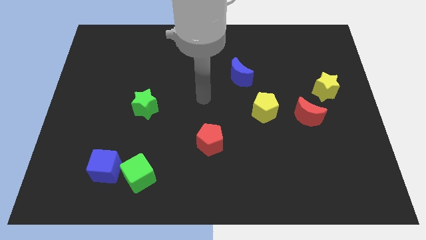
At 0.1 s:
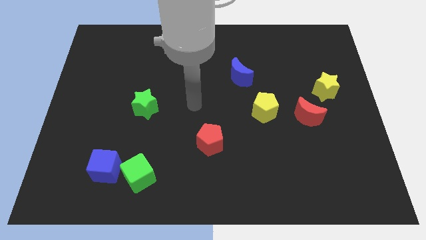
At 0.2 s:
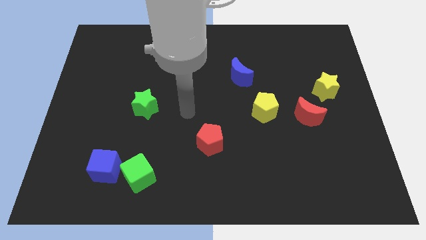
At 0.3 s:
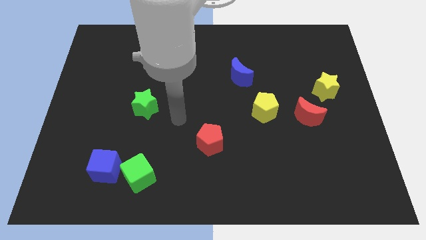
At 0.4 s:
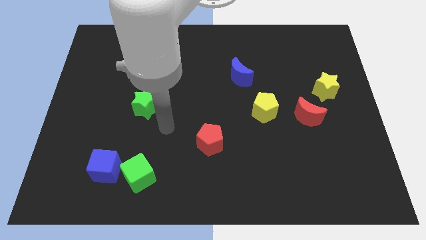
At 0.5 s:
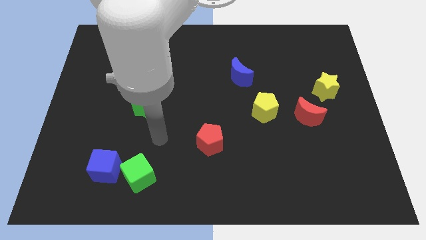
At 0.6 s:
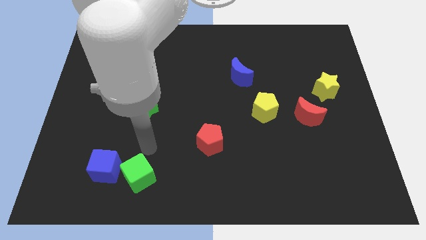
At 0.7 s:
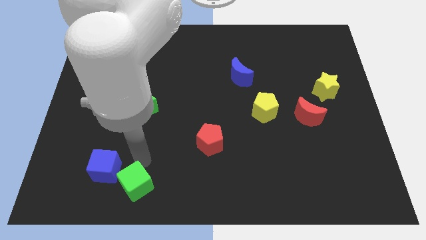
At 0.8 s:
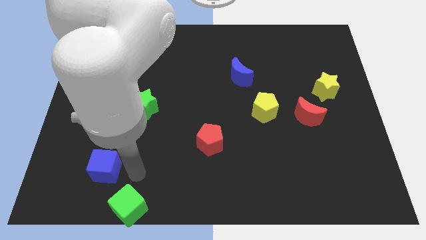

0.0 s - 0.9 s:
pull the blue cube apart from the green cube

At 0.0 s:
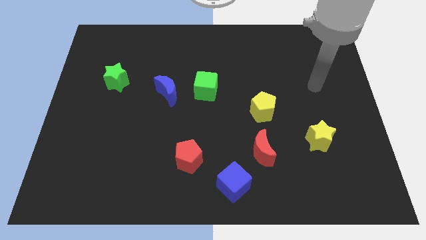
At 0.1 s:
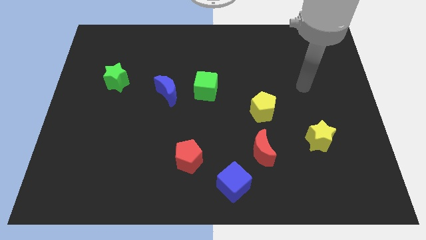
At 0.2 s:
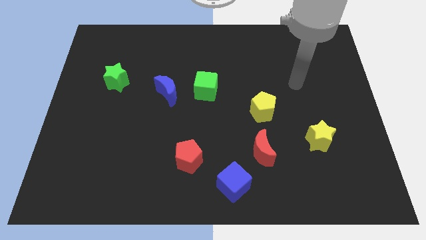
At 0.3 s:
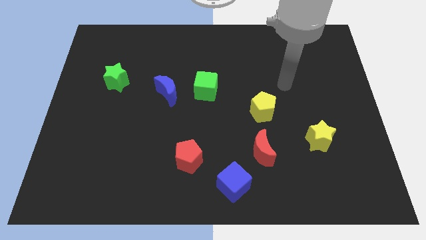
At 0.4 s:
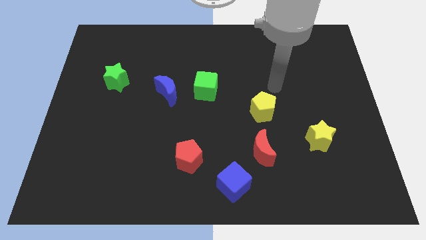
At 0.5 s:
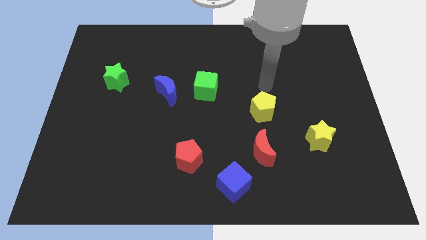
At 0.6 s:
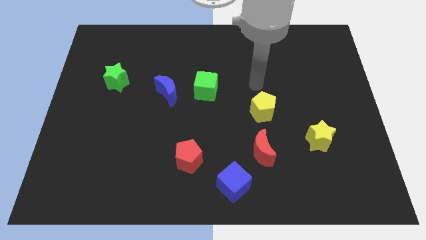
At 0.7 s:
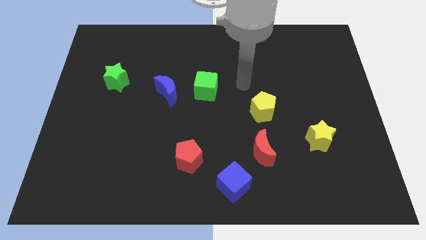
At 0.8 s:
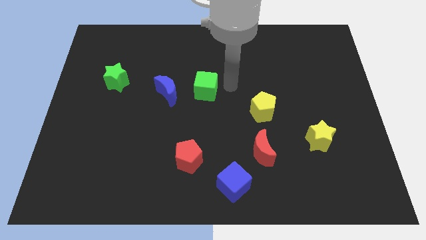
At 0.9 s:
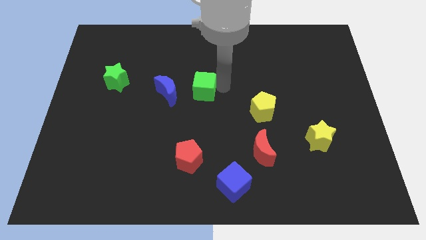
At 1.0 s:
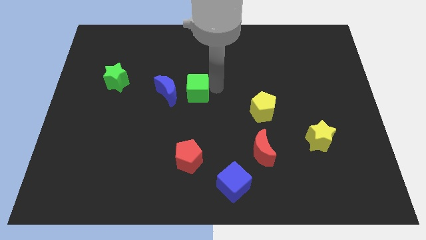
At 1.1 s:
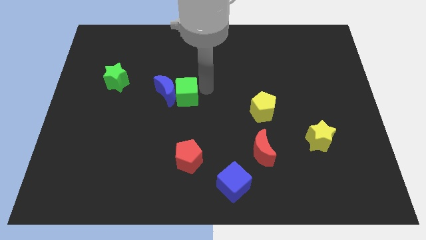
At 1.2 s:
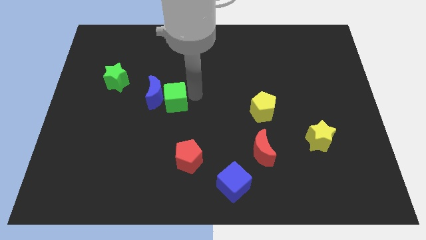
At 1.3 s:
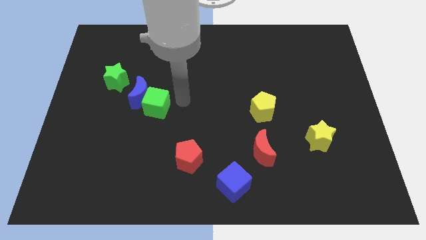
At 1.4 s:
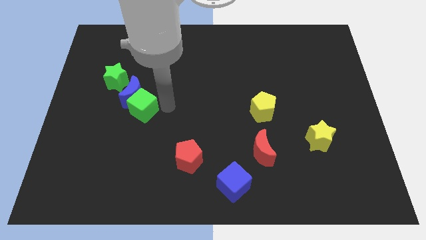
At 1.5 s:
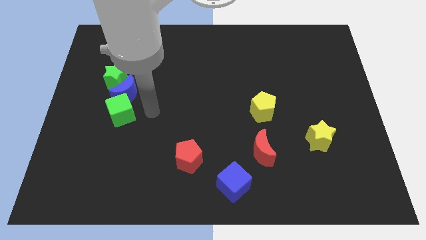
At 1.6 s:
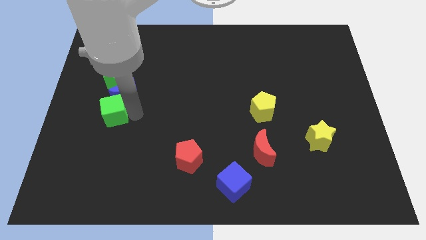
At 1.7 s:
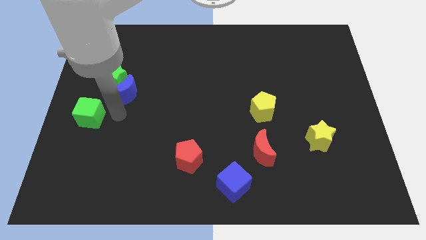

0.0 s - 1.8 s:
pull the blue moon apart from the green cube

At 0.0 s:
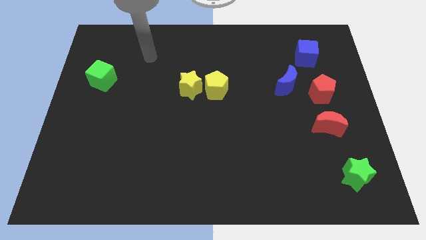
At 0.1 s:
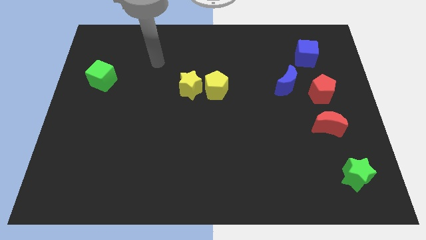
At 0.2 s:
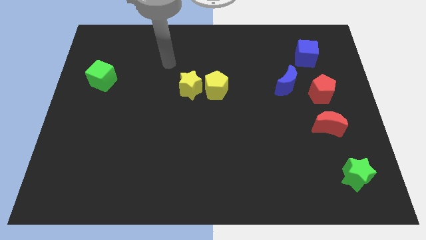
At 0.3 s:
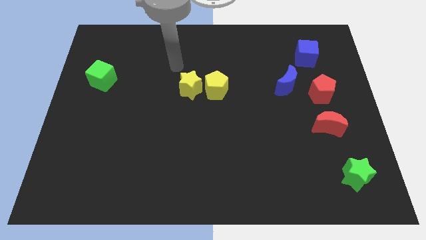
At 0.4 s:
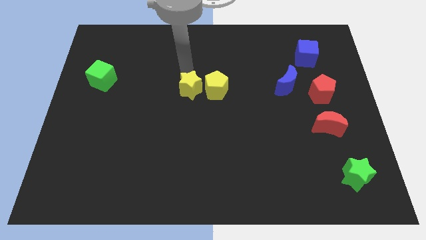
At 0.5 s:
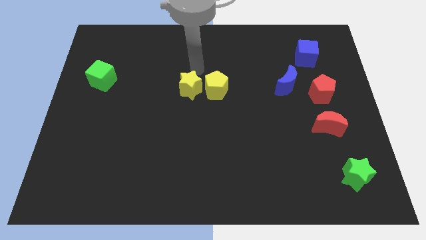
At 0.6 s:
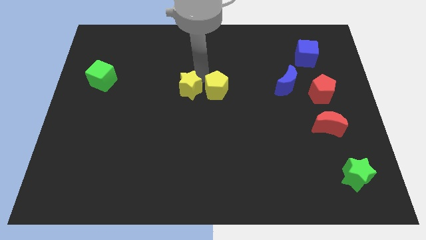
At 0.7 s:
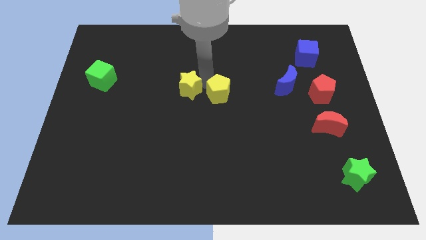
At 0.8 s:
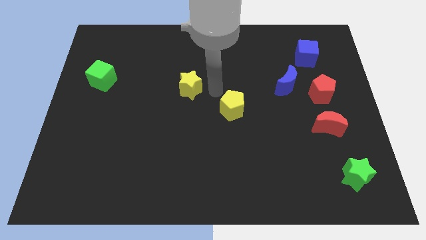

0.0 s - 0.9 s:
move the yellow star away from the yellow pentagon

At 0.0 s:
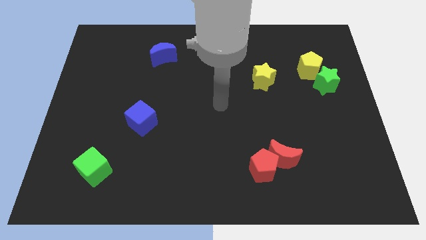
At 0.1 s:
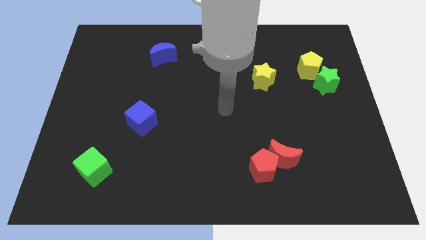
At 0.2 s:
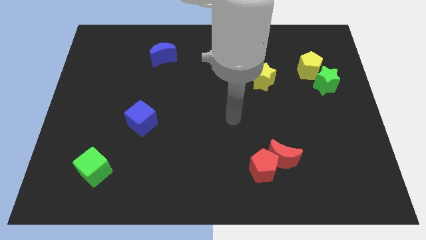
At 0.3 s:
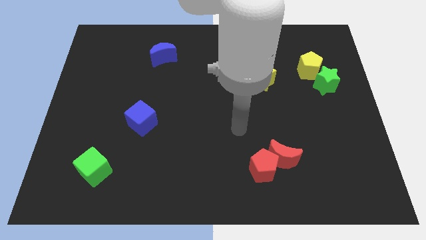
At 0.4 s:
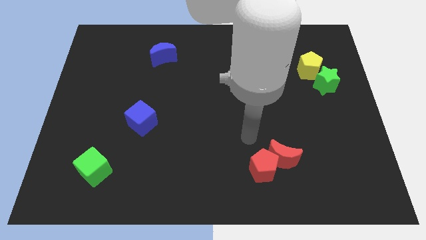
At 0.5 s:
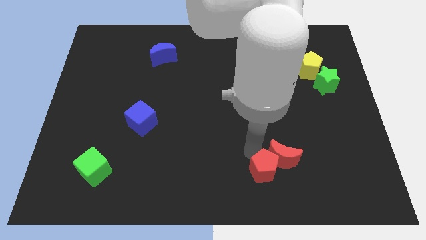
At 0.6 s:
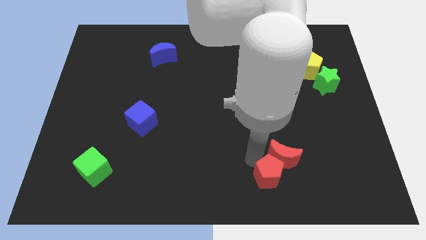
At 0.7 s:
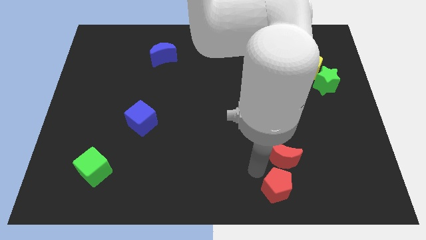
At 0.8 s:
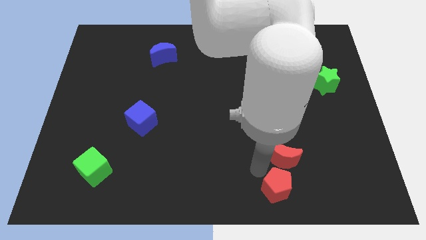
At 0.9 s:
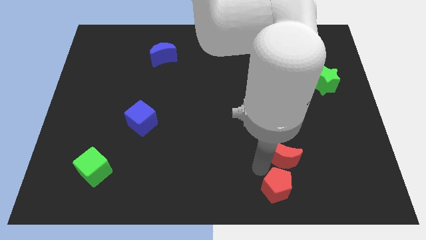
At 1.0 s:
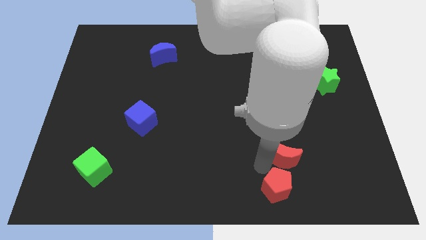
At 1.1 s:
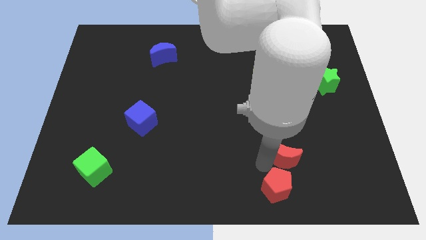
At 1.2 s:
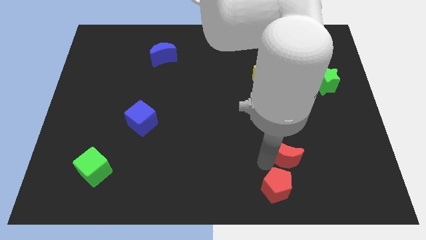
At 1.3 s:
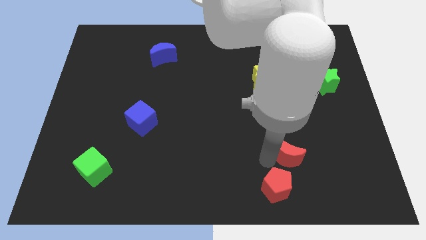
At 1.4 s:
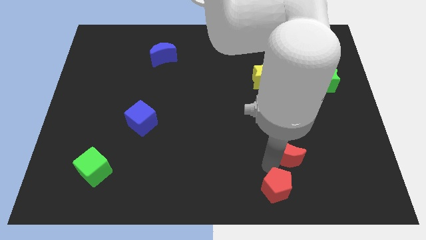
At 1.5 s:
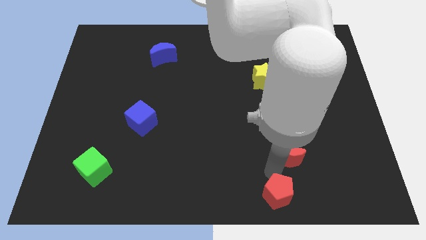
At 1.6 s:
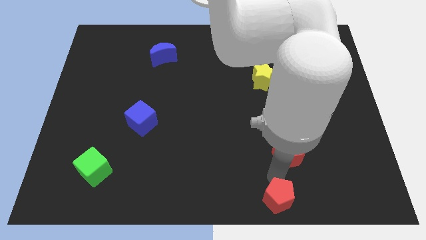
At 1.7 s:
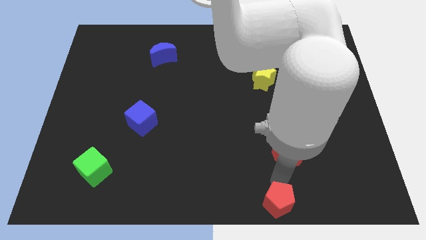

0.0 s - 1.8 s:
pull the red moon apart from the red pentagon

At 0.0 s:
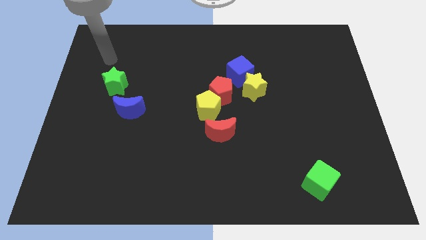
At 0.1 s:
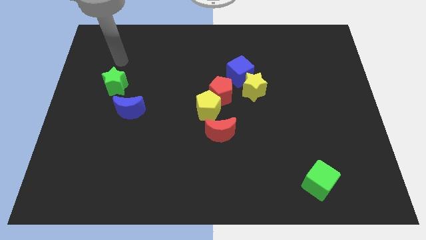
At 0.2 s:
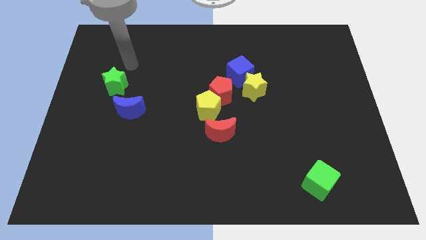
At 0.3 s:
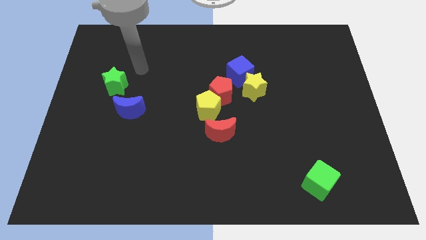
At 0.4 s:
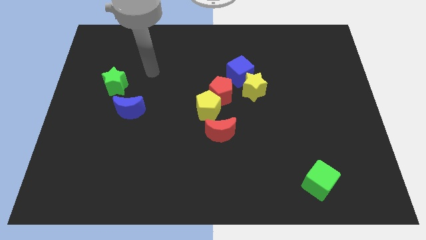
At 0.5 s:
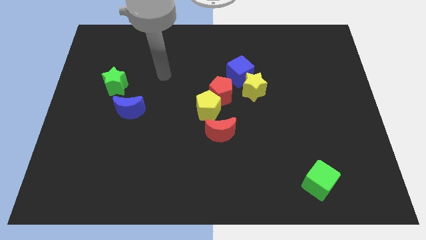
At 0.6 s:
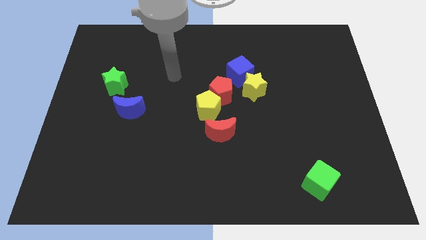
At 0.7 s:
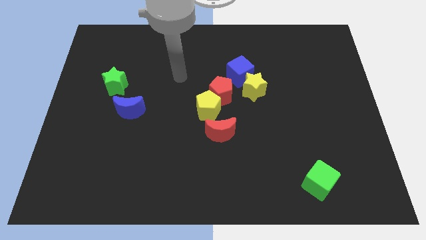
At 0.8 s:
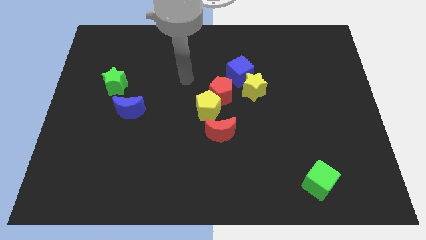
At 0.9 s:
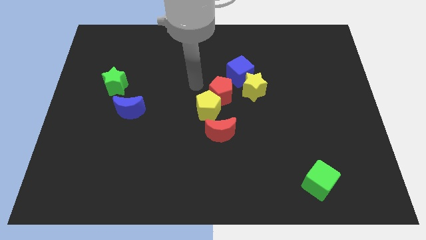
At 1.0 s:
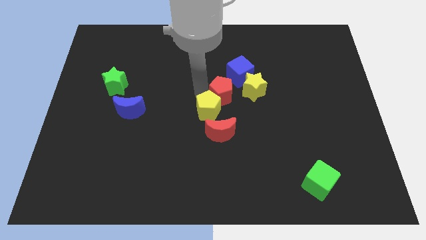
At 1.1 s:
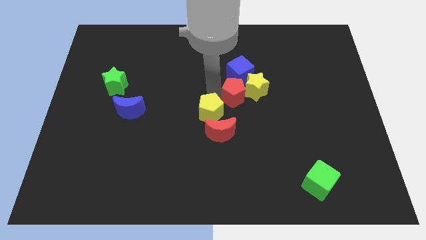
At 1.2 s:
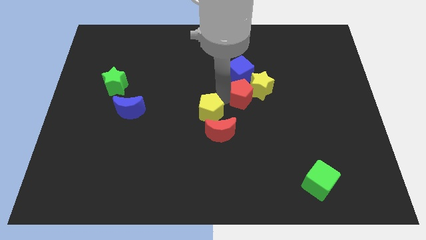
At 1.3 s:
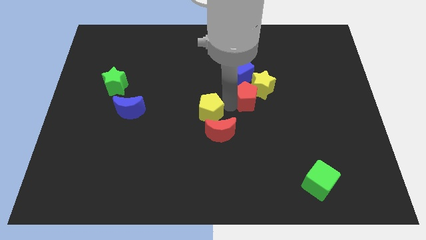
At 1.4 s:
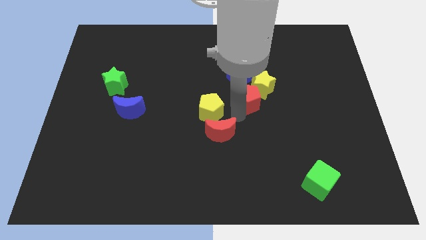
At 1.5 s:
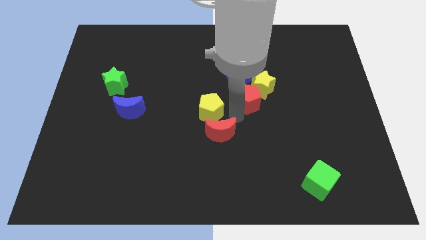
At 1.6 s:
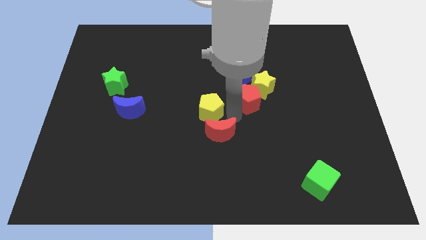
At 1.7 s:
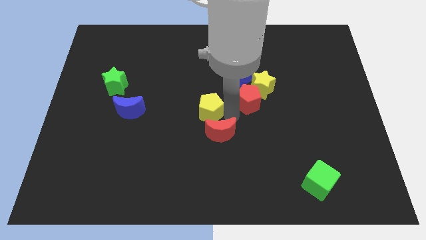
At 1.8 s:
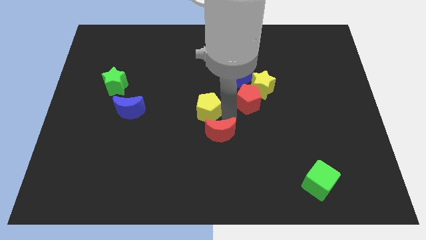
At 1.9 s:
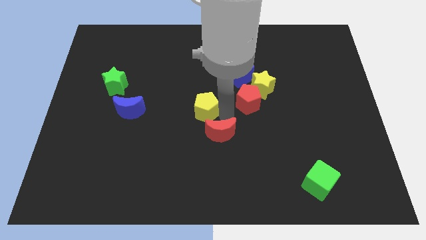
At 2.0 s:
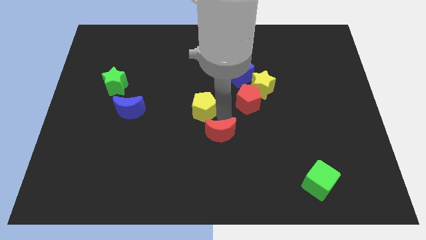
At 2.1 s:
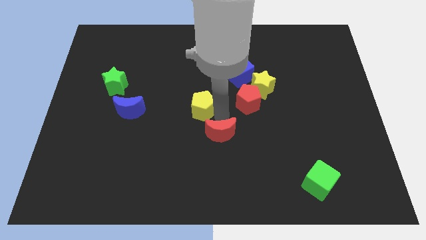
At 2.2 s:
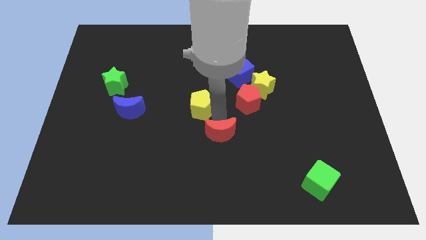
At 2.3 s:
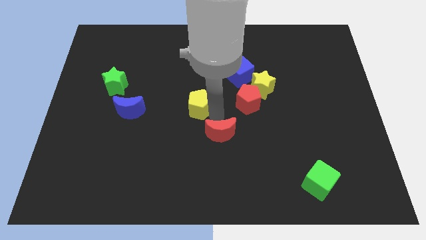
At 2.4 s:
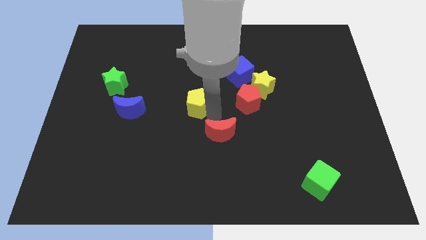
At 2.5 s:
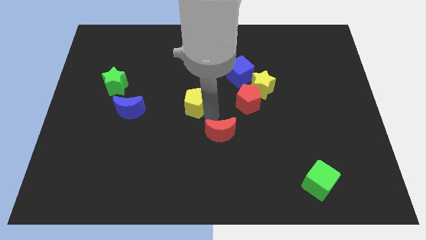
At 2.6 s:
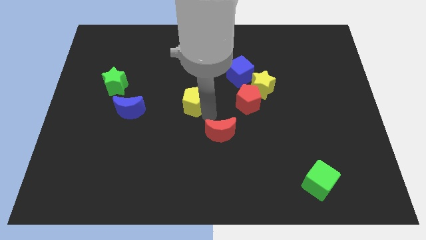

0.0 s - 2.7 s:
move the yellow pentagon away from the red pentagon and red moon

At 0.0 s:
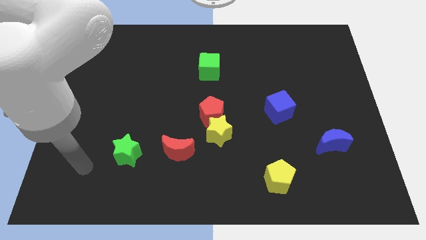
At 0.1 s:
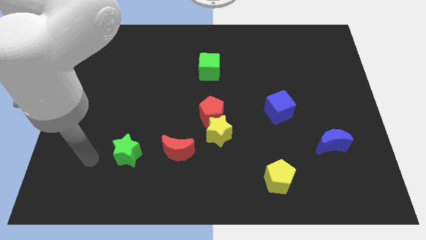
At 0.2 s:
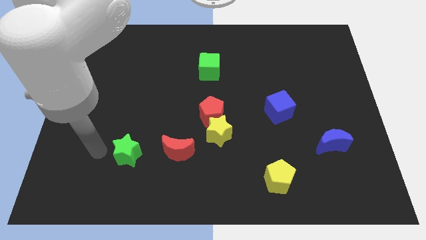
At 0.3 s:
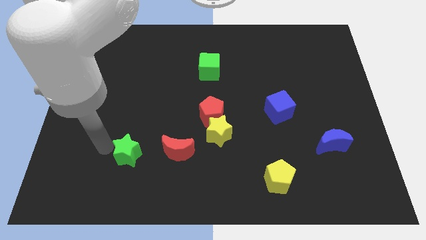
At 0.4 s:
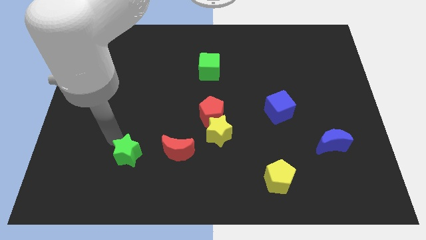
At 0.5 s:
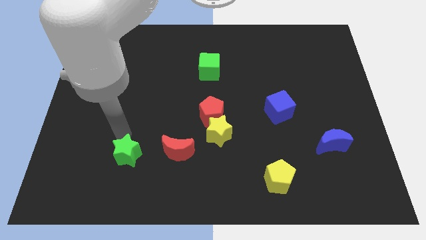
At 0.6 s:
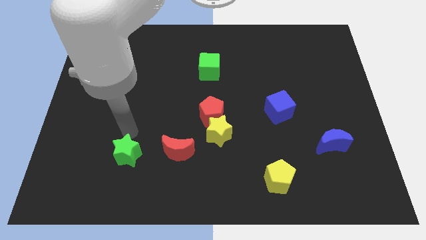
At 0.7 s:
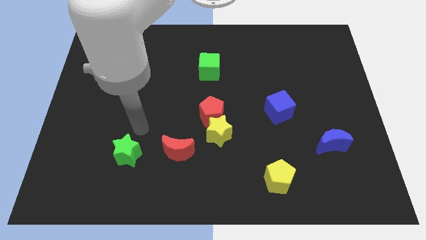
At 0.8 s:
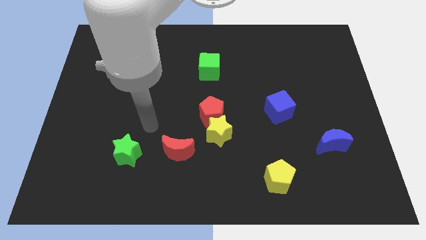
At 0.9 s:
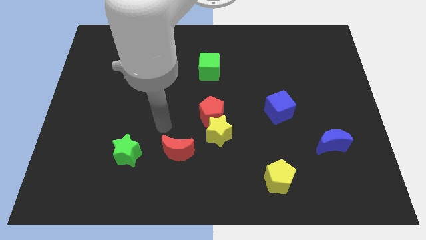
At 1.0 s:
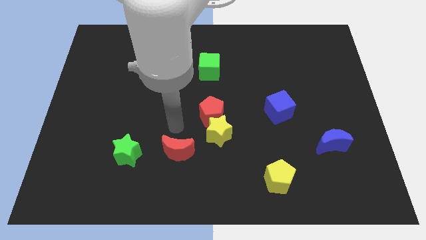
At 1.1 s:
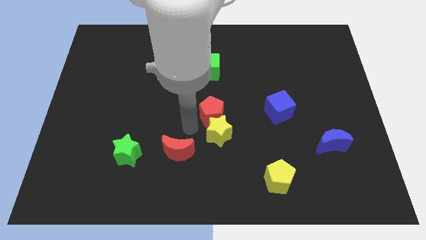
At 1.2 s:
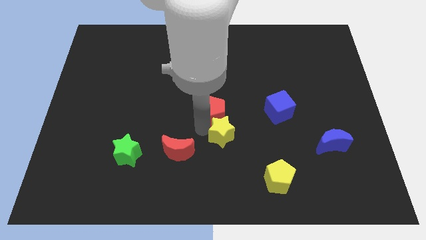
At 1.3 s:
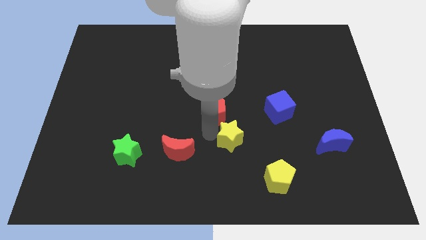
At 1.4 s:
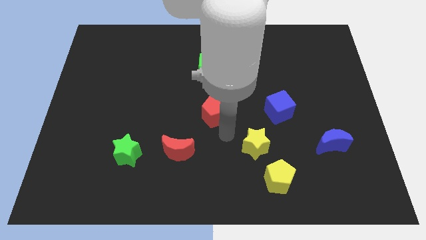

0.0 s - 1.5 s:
separate the red pentagon from the yellow star
